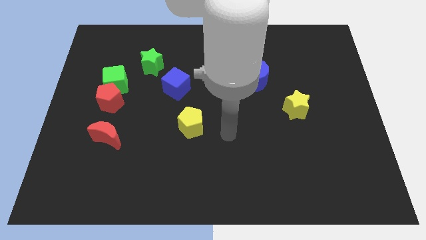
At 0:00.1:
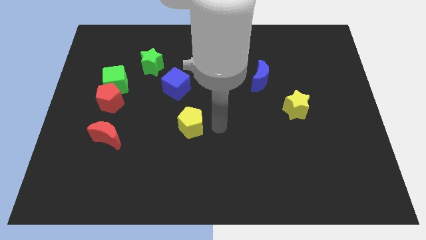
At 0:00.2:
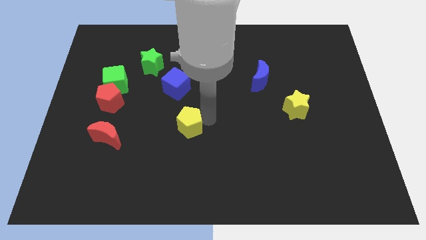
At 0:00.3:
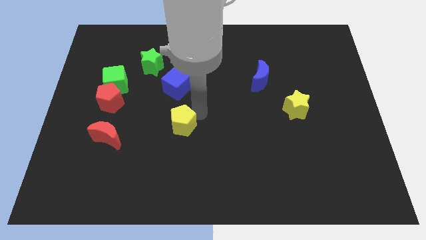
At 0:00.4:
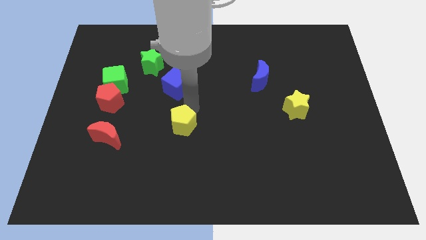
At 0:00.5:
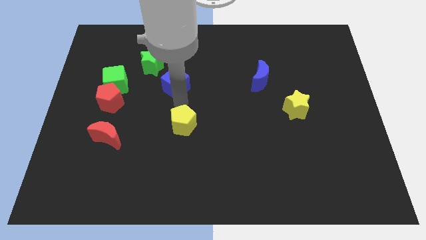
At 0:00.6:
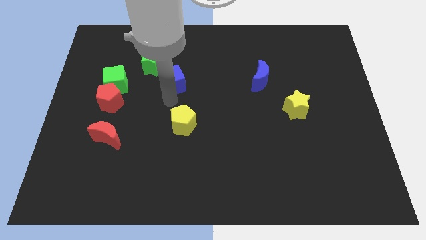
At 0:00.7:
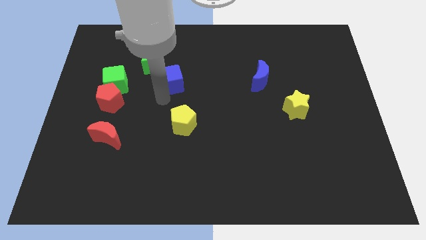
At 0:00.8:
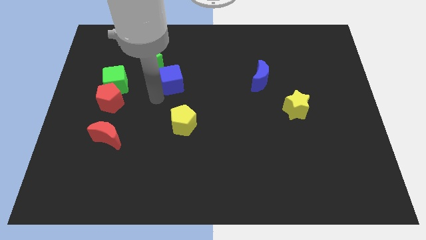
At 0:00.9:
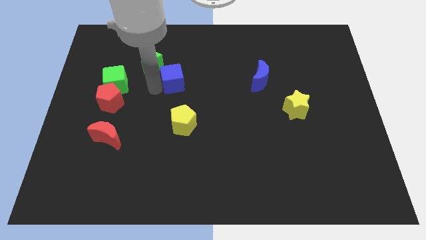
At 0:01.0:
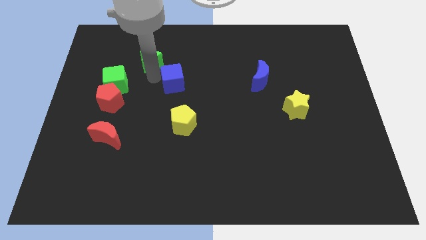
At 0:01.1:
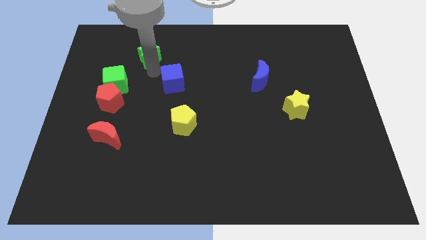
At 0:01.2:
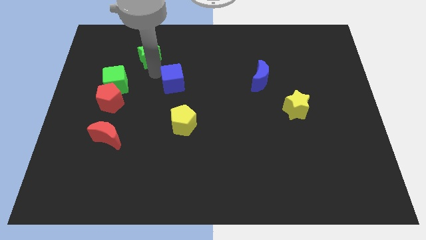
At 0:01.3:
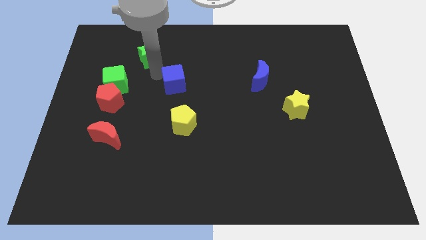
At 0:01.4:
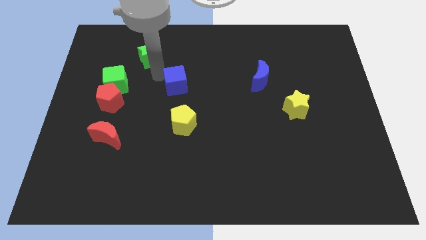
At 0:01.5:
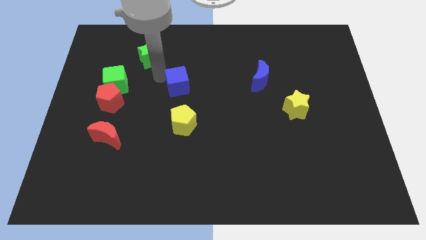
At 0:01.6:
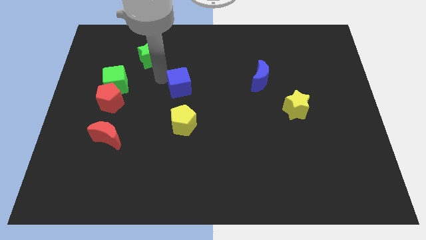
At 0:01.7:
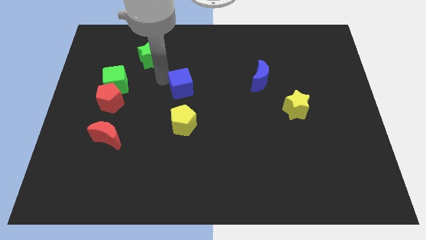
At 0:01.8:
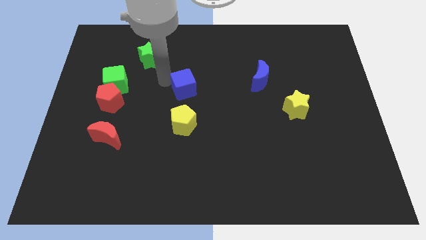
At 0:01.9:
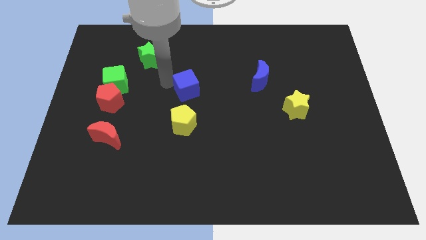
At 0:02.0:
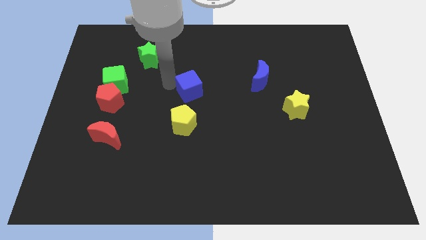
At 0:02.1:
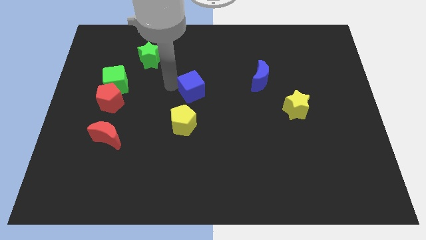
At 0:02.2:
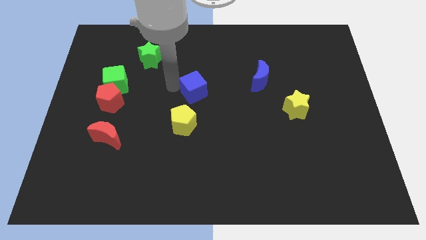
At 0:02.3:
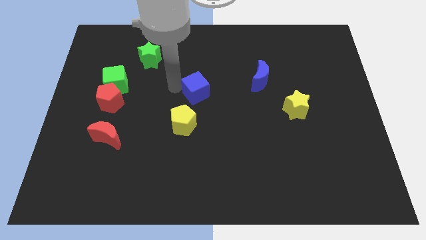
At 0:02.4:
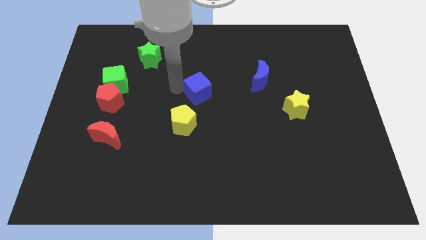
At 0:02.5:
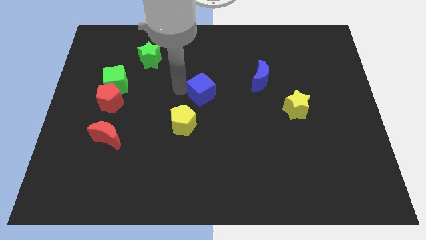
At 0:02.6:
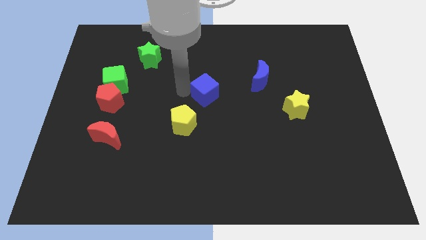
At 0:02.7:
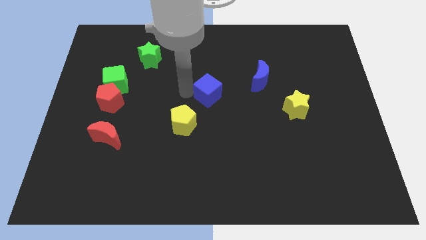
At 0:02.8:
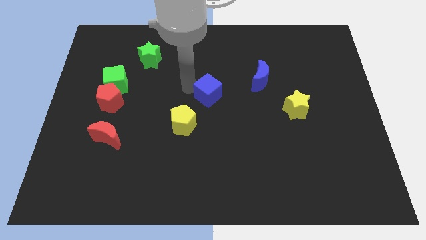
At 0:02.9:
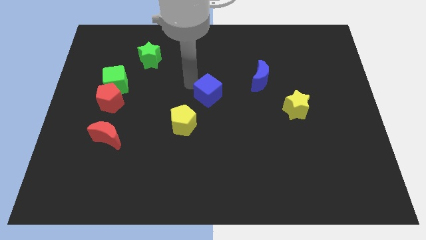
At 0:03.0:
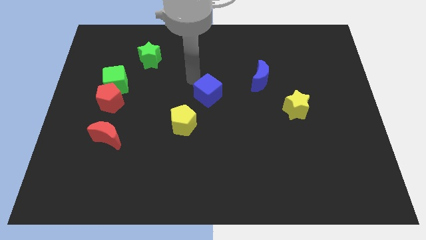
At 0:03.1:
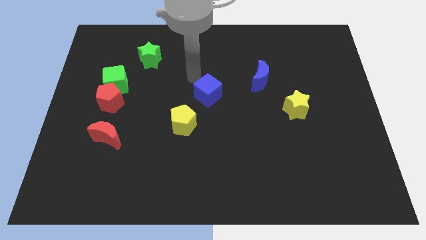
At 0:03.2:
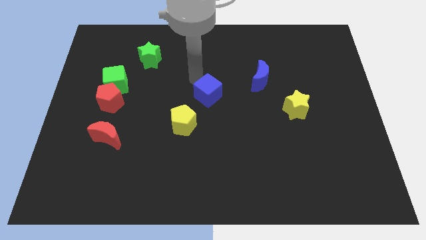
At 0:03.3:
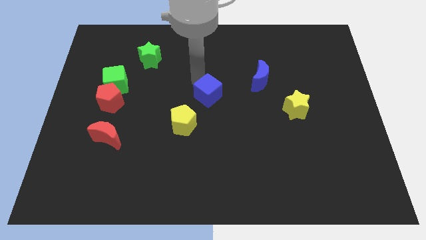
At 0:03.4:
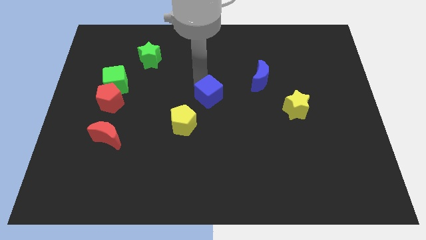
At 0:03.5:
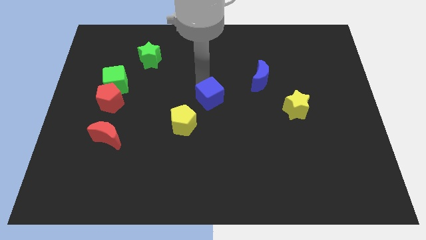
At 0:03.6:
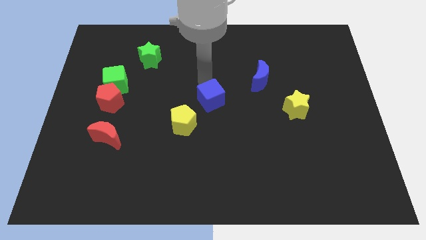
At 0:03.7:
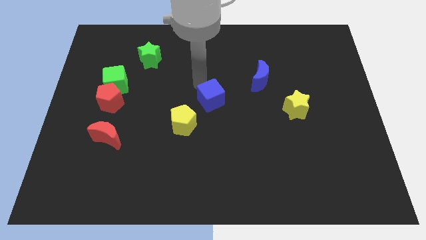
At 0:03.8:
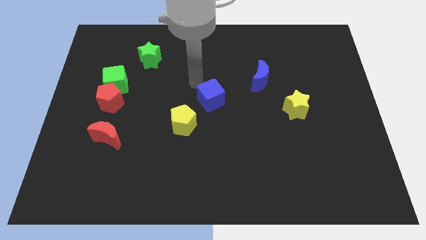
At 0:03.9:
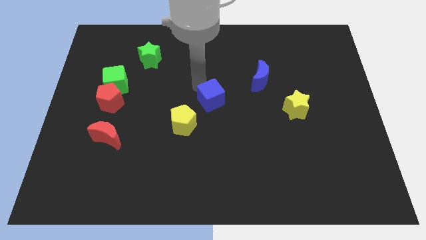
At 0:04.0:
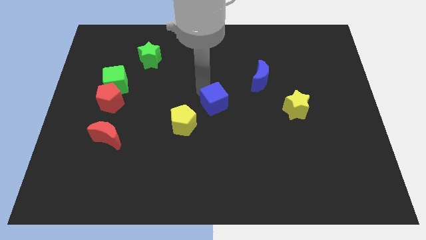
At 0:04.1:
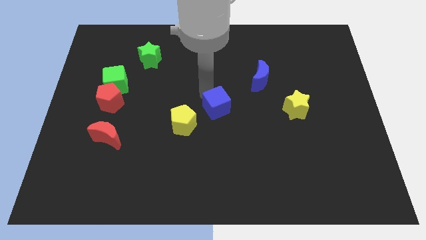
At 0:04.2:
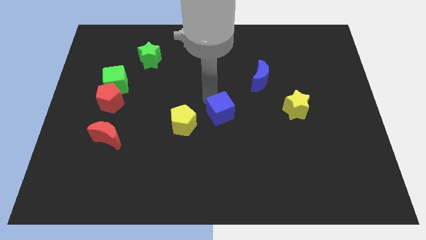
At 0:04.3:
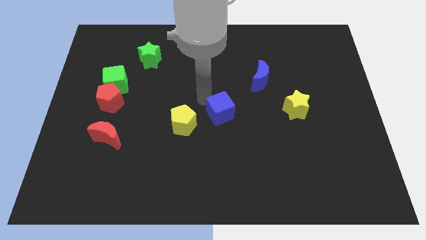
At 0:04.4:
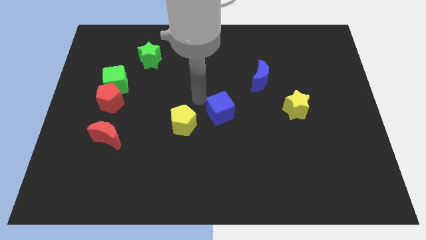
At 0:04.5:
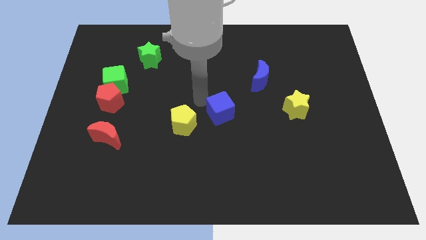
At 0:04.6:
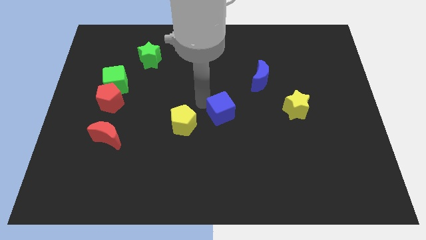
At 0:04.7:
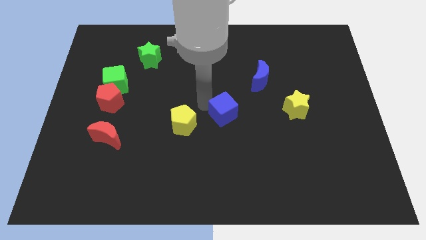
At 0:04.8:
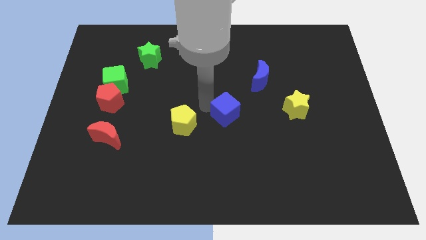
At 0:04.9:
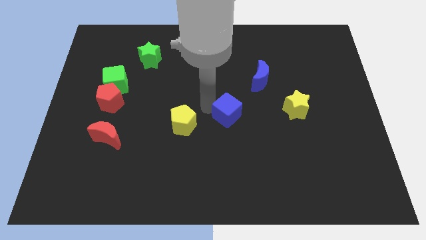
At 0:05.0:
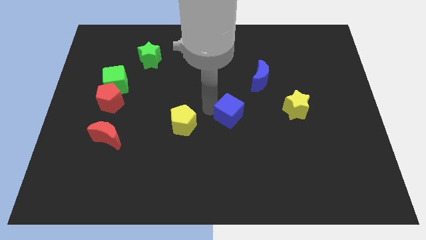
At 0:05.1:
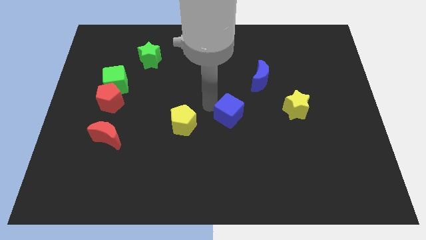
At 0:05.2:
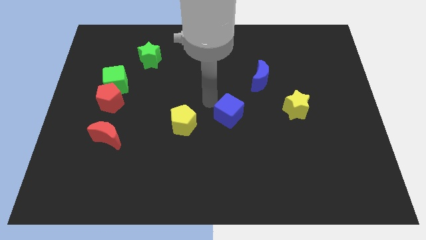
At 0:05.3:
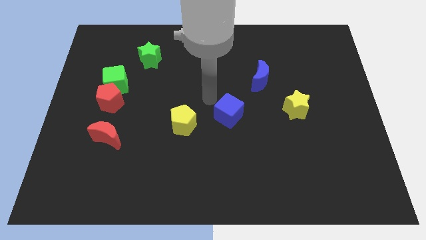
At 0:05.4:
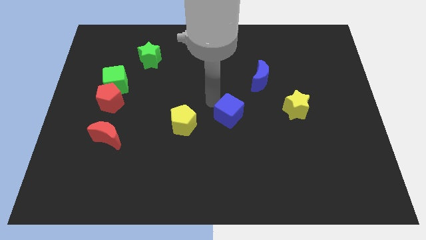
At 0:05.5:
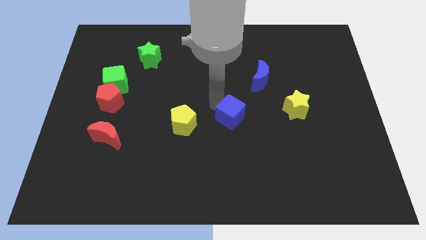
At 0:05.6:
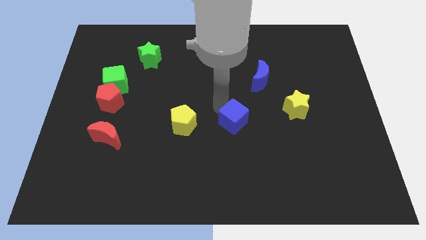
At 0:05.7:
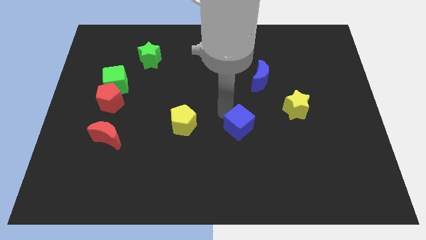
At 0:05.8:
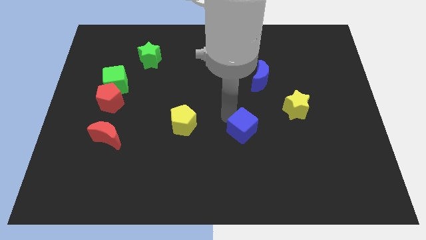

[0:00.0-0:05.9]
slide the blue cube downwards and to the right

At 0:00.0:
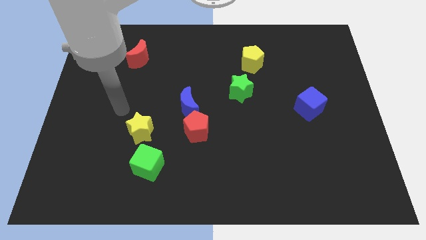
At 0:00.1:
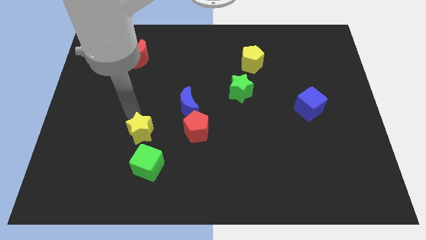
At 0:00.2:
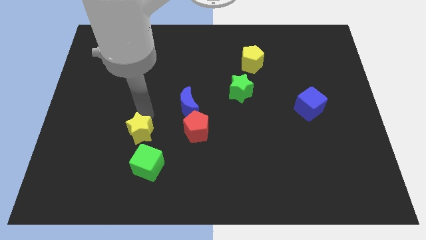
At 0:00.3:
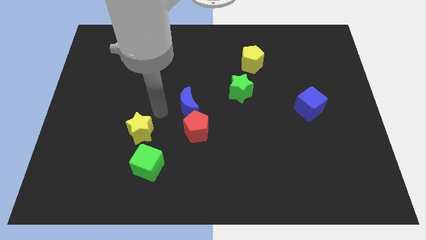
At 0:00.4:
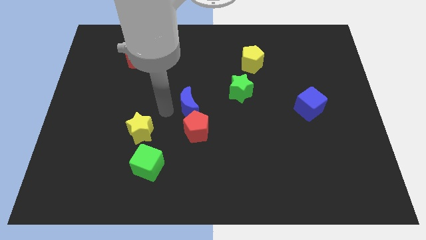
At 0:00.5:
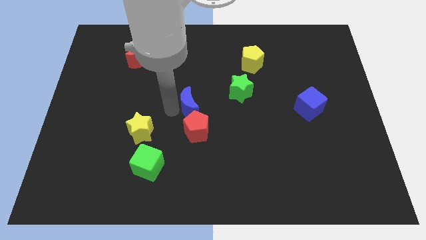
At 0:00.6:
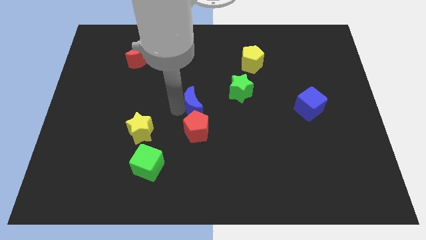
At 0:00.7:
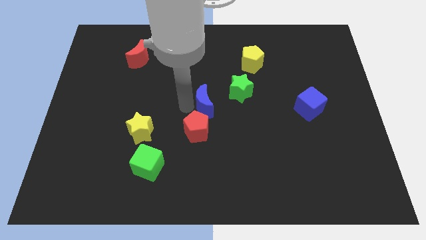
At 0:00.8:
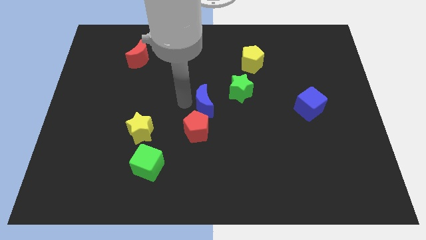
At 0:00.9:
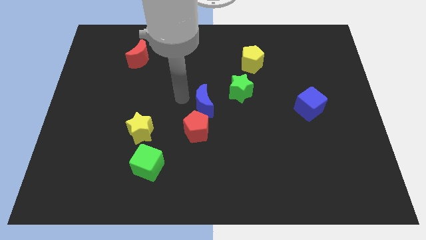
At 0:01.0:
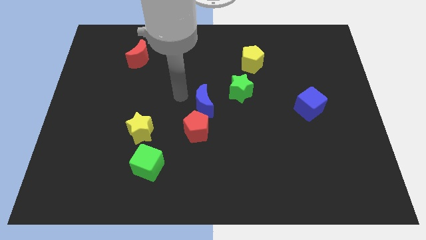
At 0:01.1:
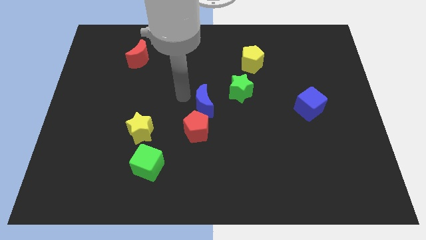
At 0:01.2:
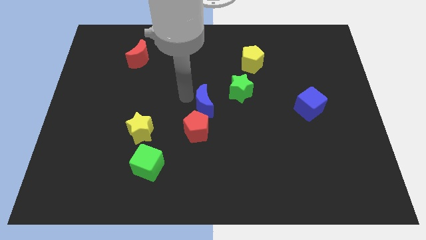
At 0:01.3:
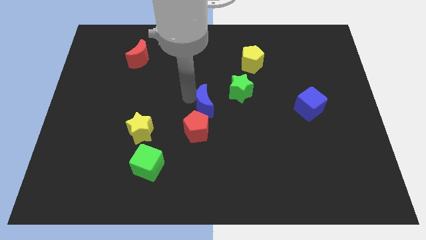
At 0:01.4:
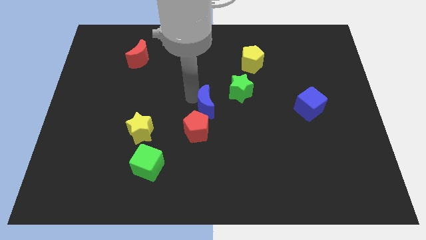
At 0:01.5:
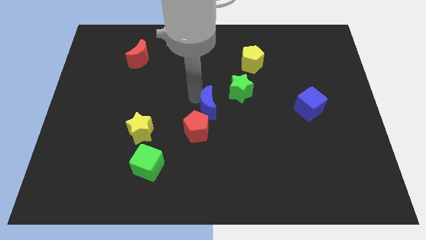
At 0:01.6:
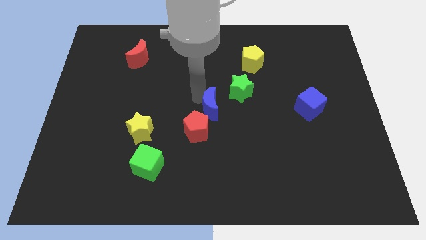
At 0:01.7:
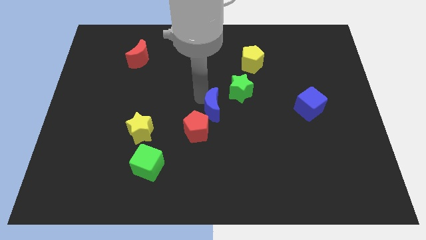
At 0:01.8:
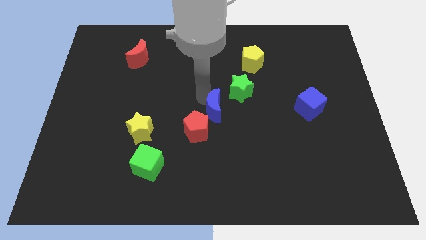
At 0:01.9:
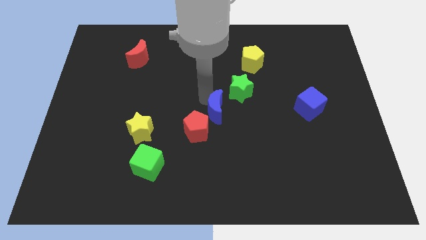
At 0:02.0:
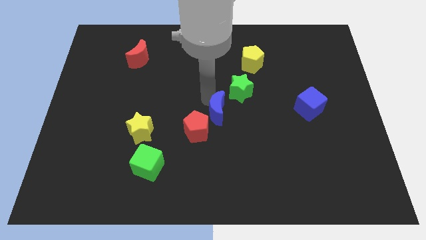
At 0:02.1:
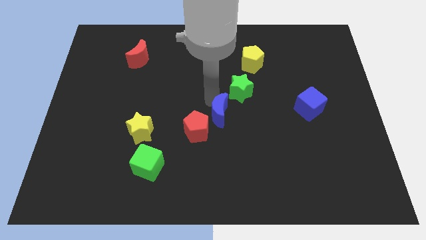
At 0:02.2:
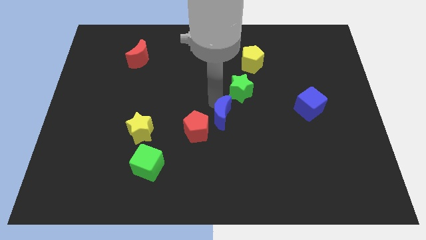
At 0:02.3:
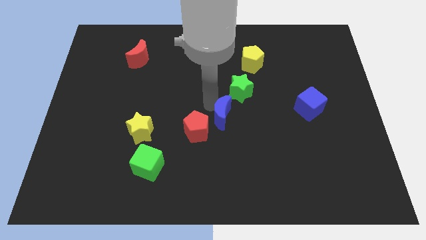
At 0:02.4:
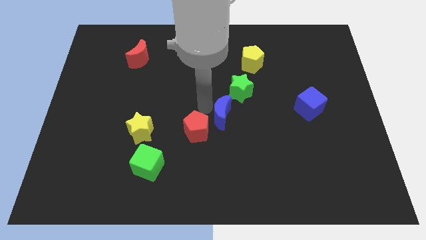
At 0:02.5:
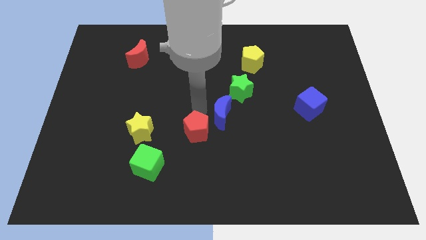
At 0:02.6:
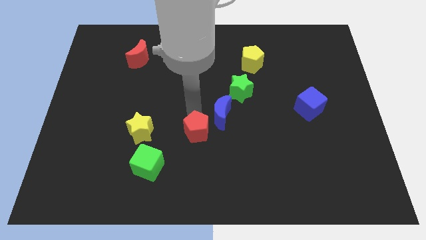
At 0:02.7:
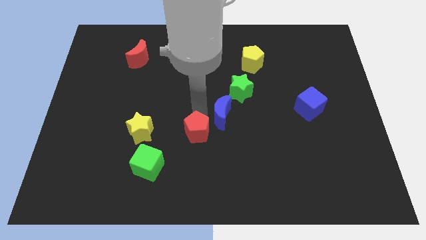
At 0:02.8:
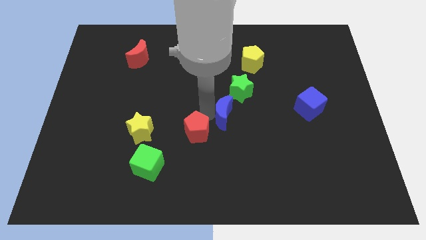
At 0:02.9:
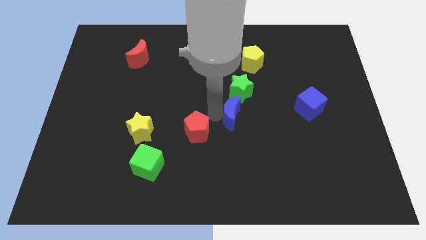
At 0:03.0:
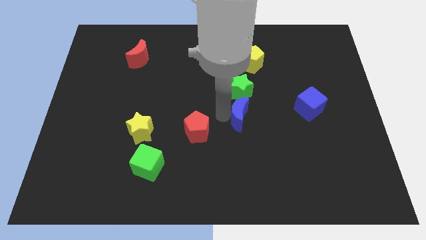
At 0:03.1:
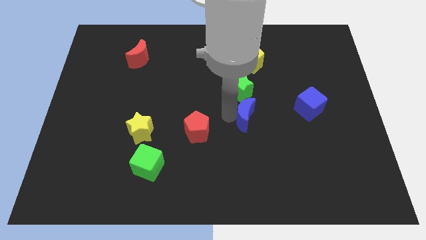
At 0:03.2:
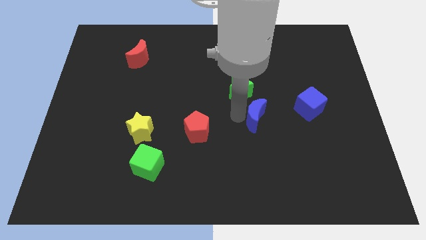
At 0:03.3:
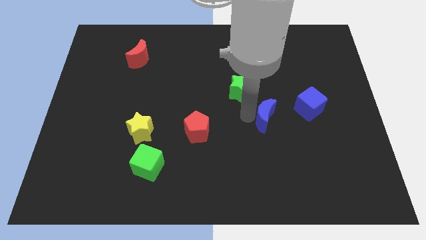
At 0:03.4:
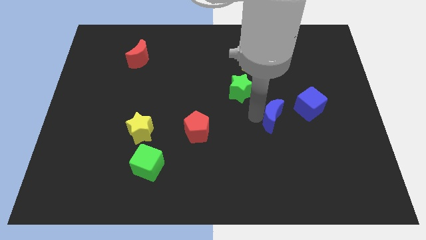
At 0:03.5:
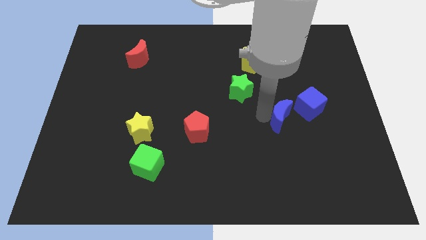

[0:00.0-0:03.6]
move the blue moon to the right
